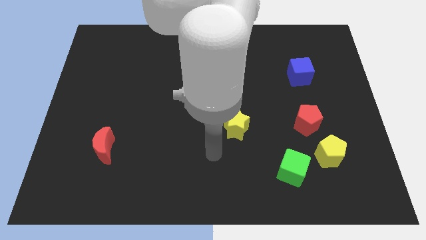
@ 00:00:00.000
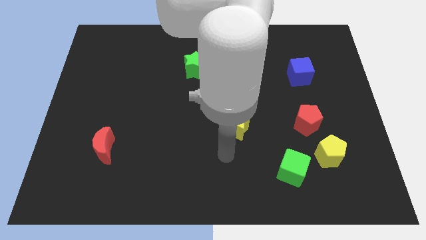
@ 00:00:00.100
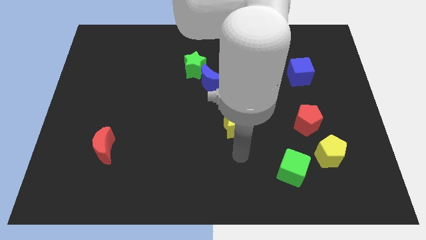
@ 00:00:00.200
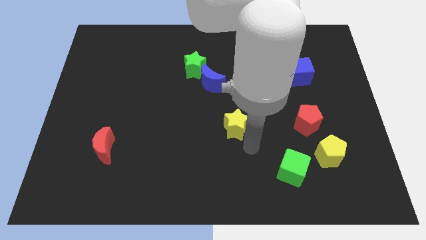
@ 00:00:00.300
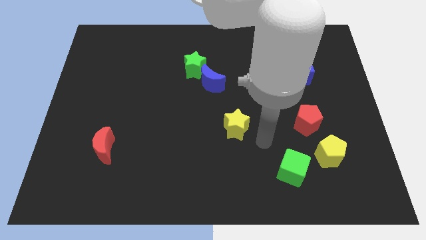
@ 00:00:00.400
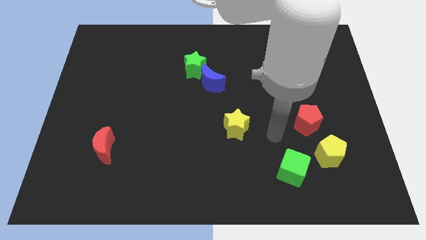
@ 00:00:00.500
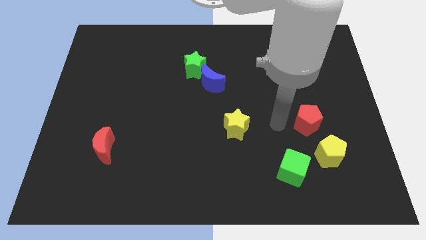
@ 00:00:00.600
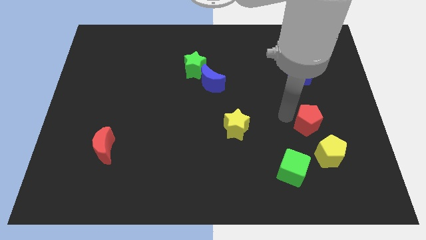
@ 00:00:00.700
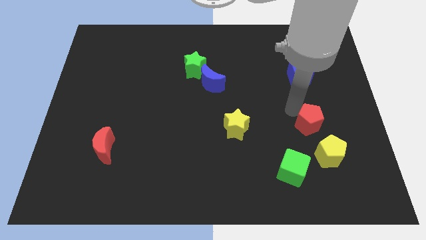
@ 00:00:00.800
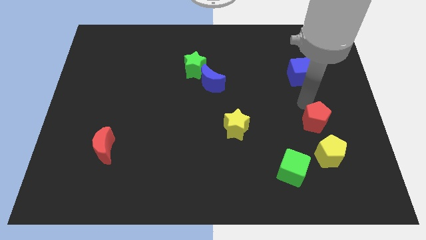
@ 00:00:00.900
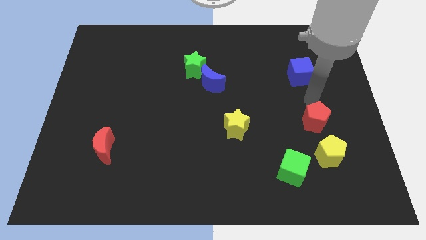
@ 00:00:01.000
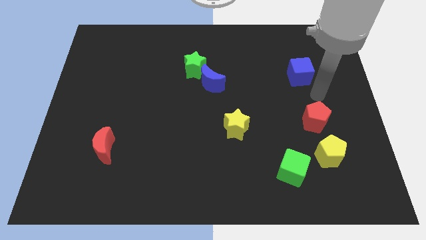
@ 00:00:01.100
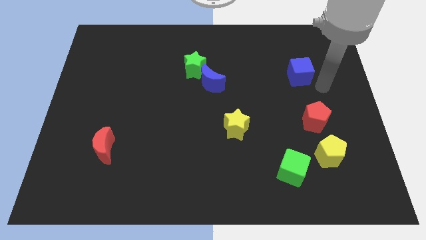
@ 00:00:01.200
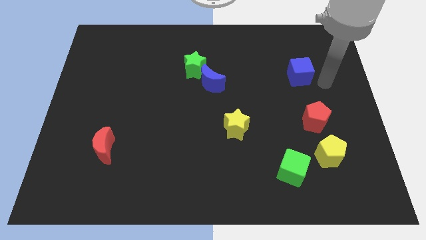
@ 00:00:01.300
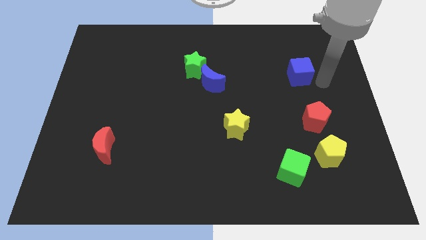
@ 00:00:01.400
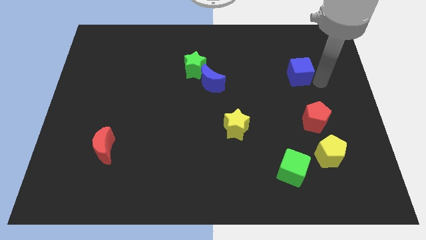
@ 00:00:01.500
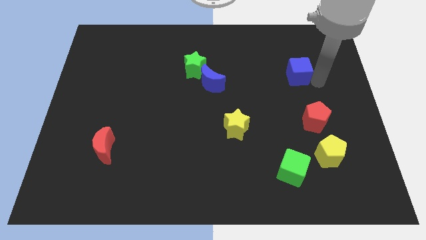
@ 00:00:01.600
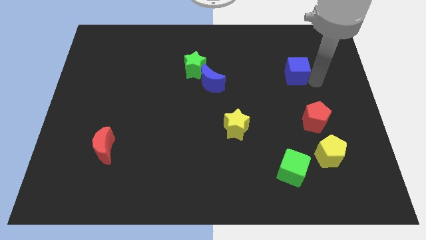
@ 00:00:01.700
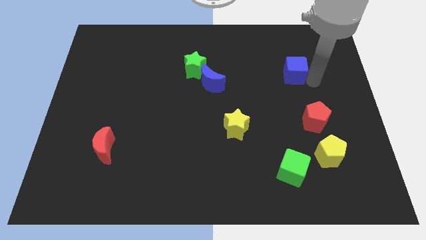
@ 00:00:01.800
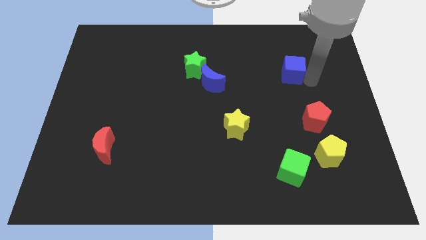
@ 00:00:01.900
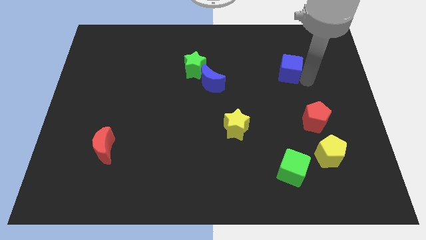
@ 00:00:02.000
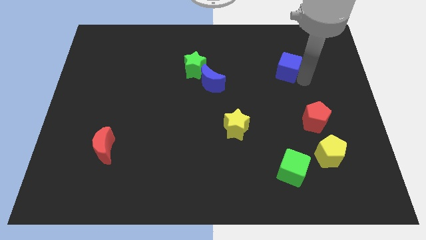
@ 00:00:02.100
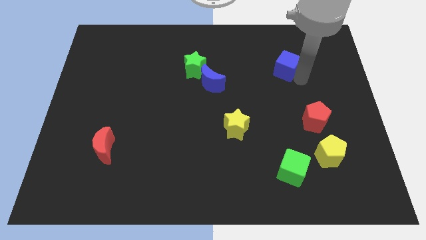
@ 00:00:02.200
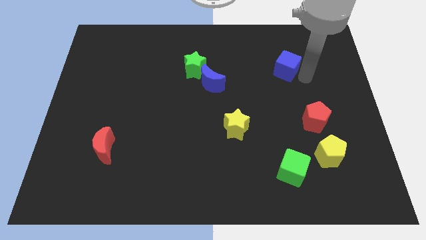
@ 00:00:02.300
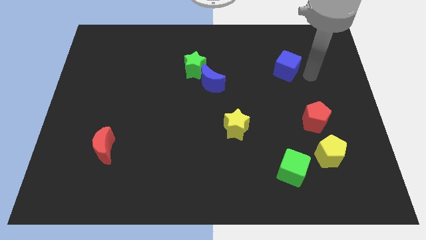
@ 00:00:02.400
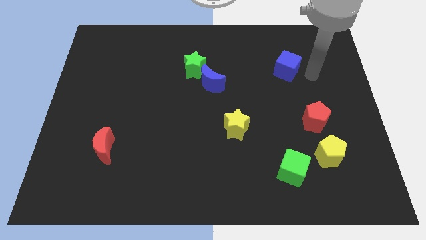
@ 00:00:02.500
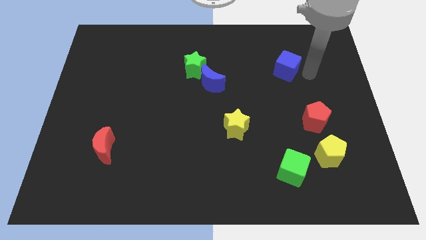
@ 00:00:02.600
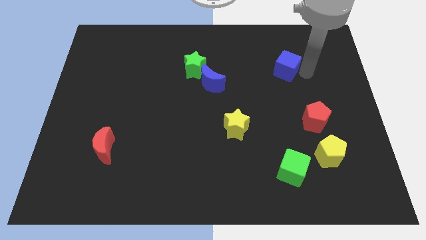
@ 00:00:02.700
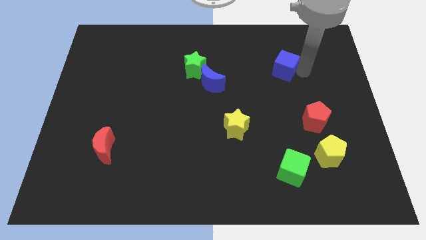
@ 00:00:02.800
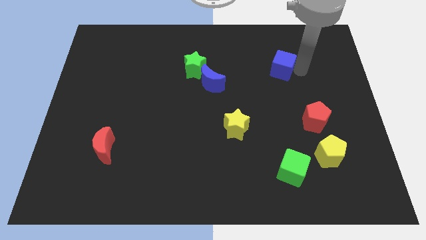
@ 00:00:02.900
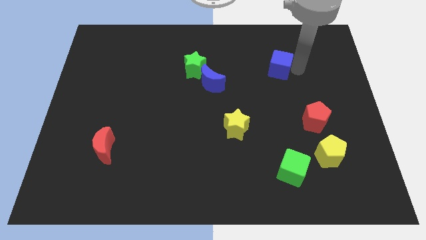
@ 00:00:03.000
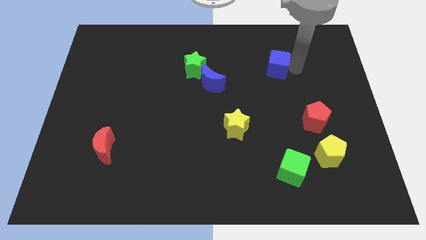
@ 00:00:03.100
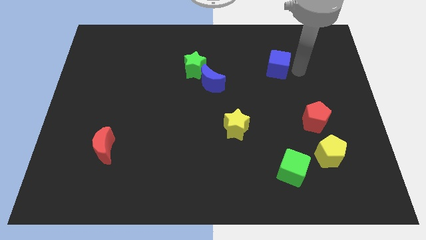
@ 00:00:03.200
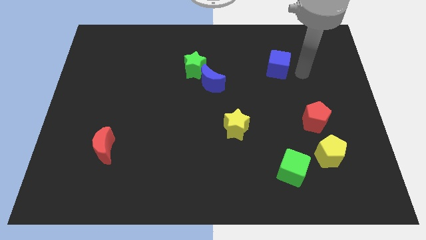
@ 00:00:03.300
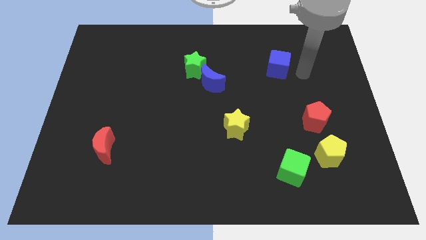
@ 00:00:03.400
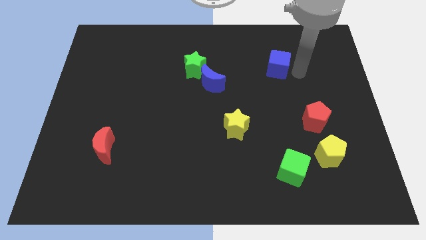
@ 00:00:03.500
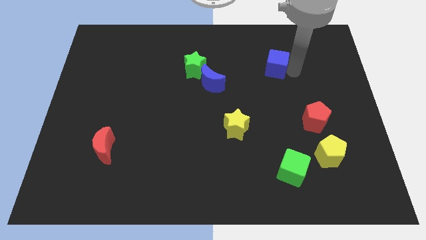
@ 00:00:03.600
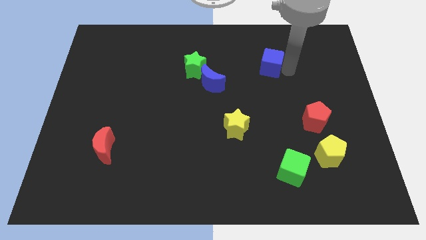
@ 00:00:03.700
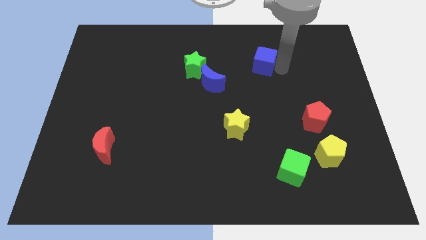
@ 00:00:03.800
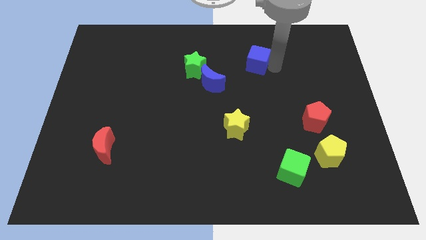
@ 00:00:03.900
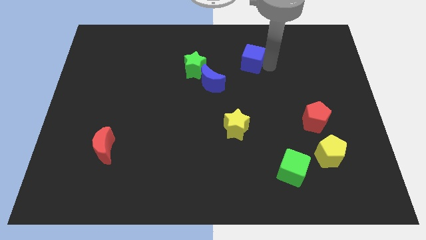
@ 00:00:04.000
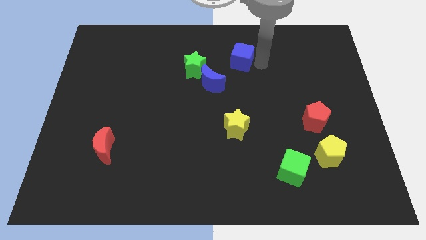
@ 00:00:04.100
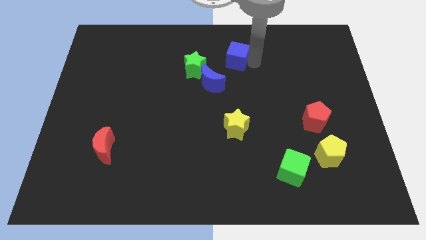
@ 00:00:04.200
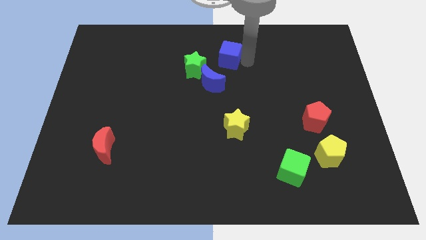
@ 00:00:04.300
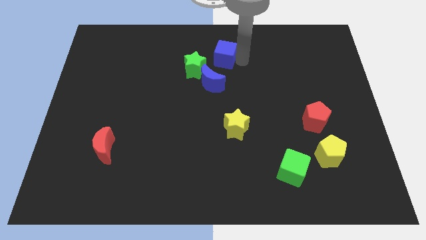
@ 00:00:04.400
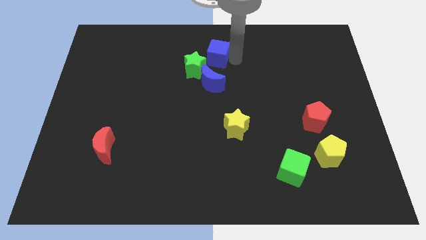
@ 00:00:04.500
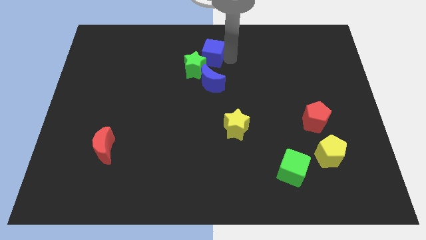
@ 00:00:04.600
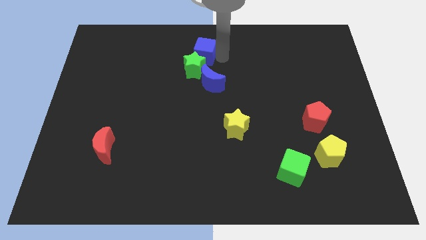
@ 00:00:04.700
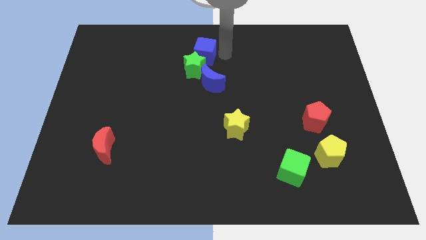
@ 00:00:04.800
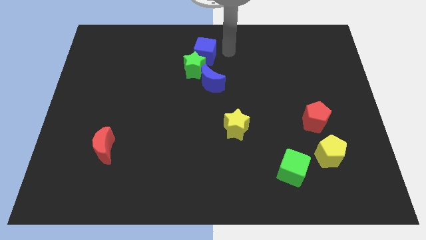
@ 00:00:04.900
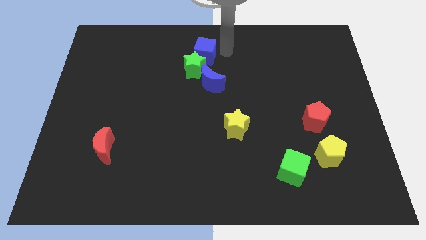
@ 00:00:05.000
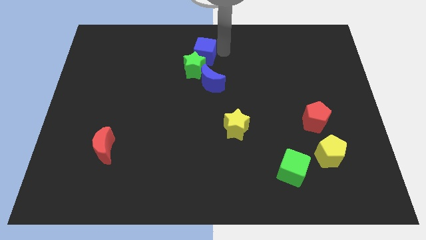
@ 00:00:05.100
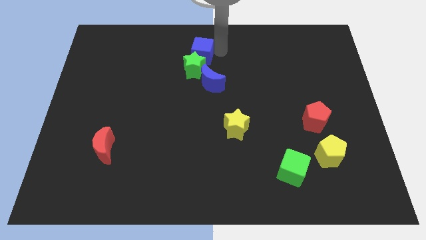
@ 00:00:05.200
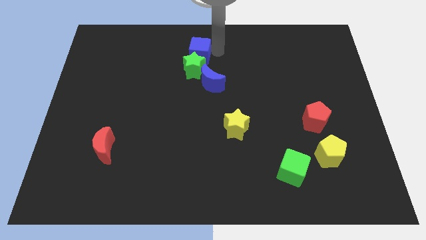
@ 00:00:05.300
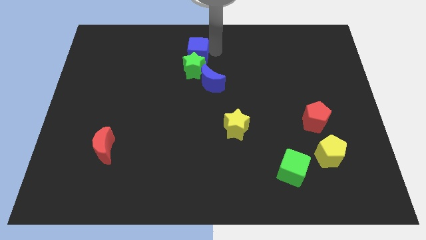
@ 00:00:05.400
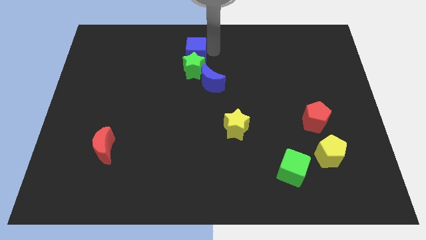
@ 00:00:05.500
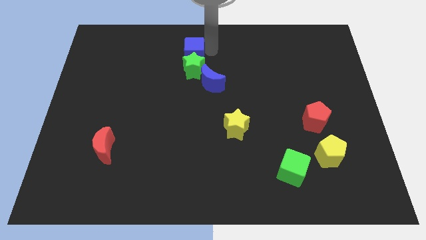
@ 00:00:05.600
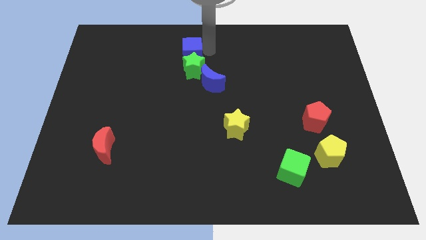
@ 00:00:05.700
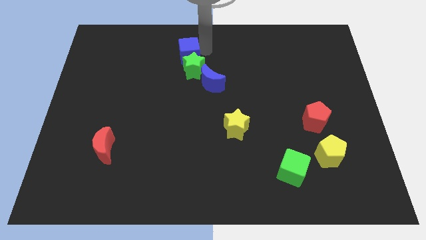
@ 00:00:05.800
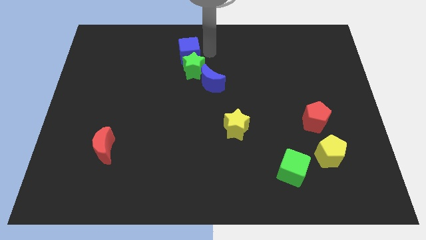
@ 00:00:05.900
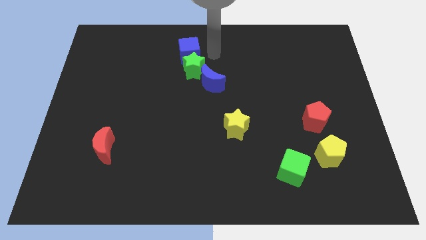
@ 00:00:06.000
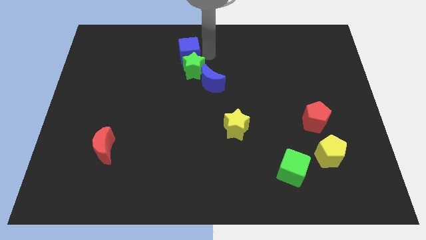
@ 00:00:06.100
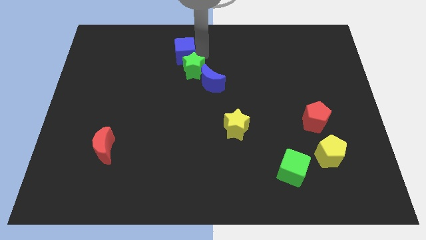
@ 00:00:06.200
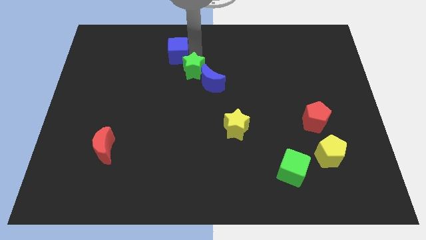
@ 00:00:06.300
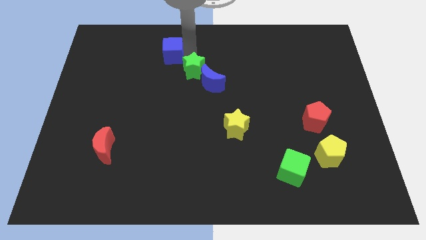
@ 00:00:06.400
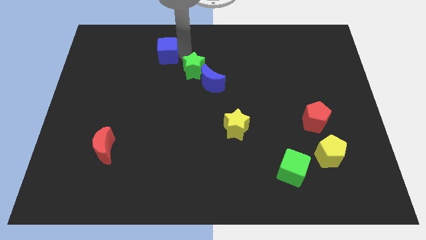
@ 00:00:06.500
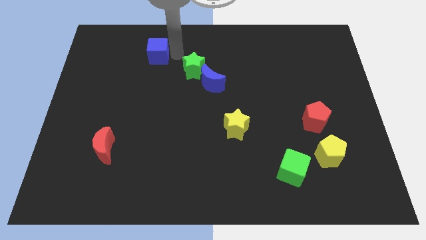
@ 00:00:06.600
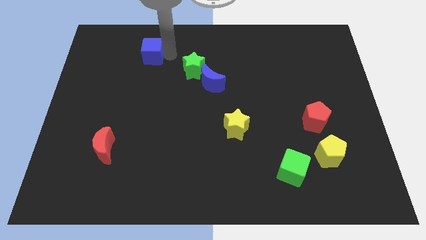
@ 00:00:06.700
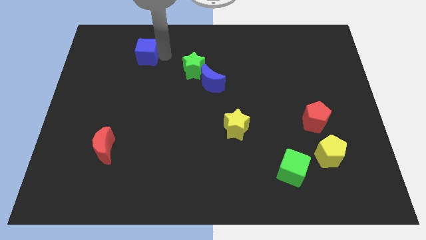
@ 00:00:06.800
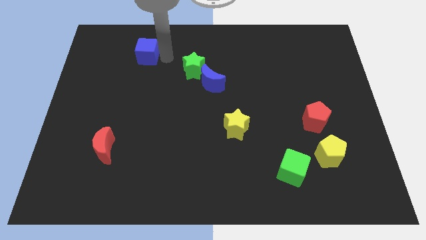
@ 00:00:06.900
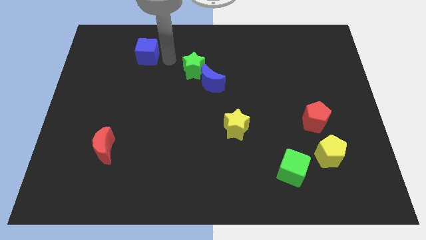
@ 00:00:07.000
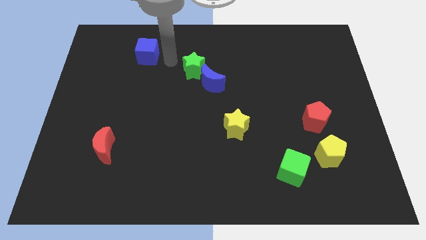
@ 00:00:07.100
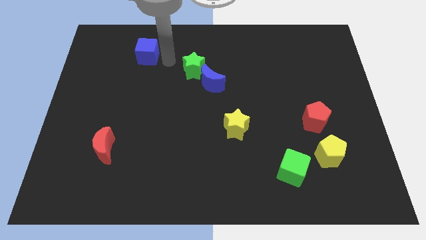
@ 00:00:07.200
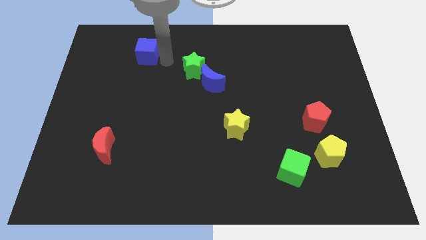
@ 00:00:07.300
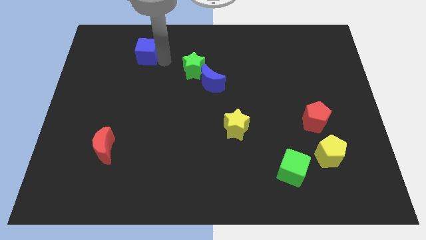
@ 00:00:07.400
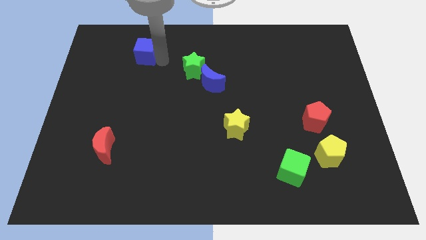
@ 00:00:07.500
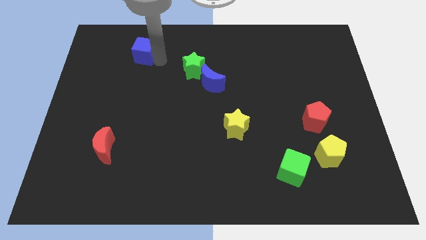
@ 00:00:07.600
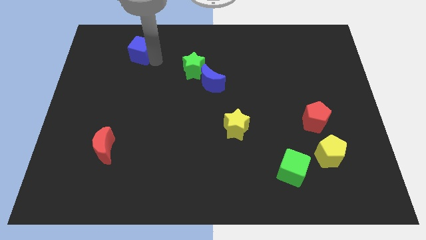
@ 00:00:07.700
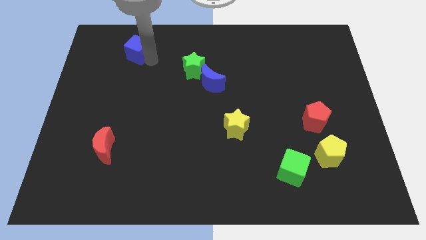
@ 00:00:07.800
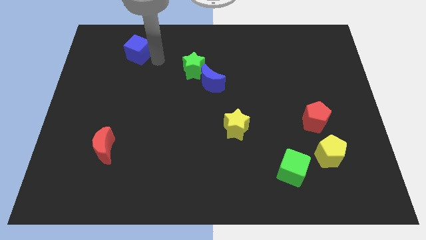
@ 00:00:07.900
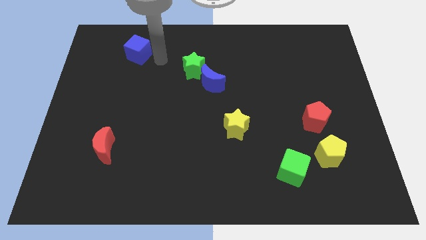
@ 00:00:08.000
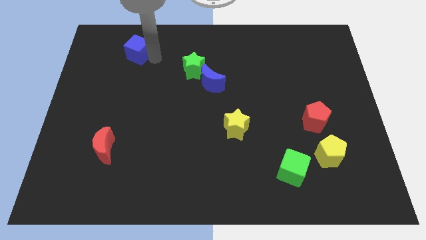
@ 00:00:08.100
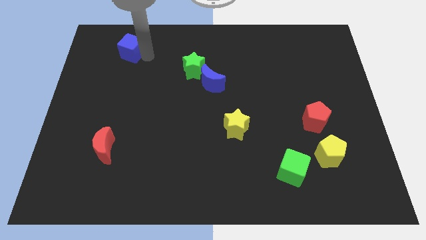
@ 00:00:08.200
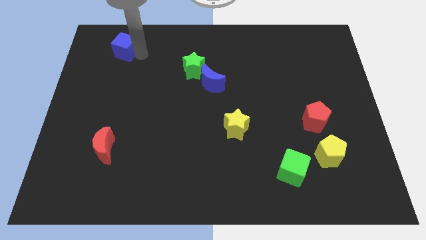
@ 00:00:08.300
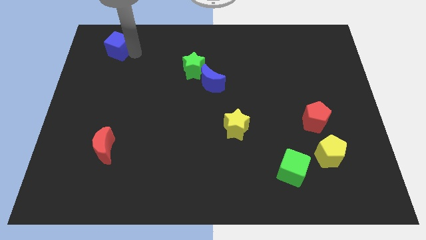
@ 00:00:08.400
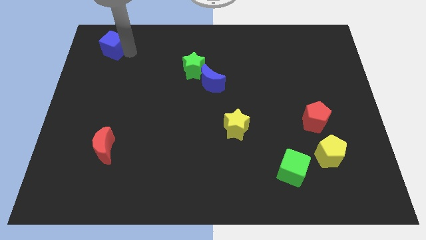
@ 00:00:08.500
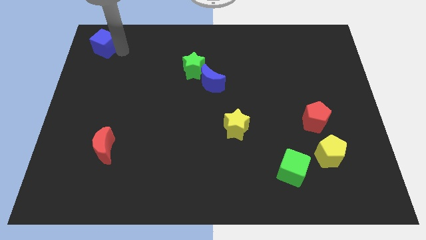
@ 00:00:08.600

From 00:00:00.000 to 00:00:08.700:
push the blue cube to the top left corner
